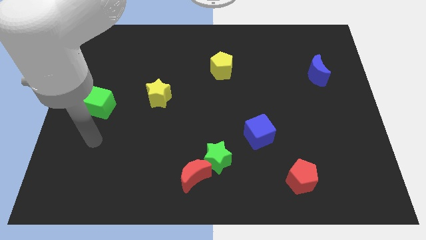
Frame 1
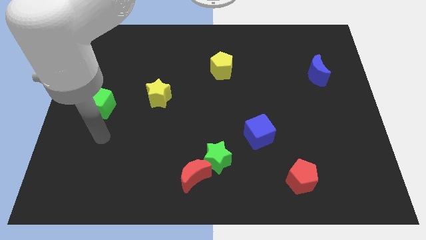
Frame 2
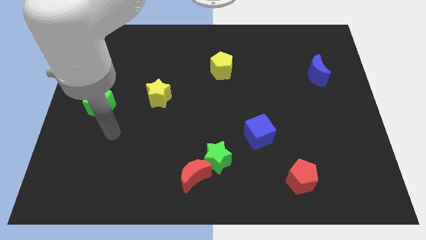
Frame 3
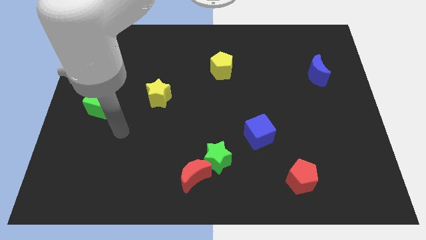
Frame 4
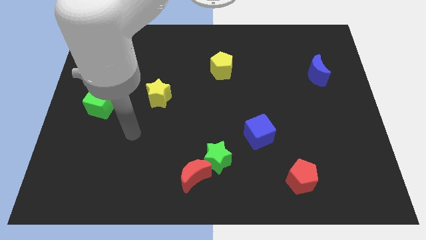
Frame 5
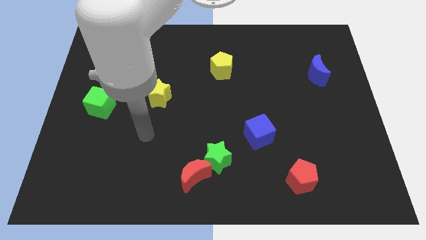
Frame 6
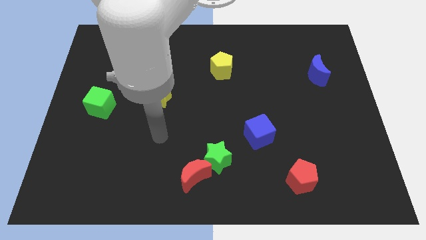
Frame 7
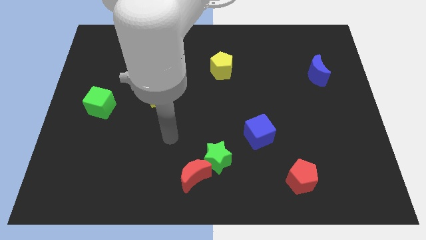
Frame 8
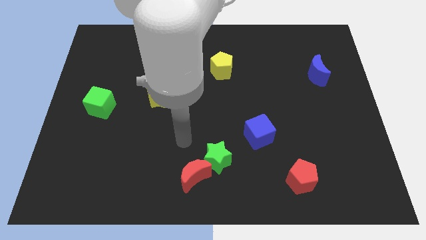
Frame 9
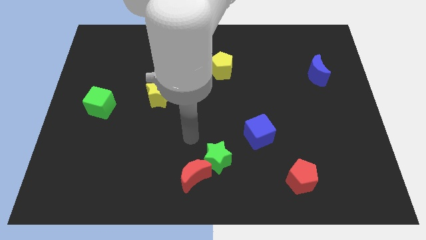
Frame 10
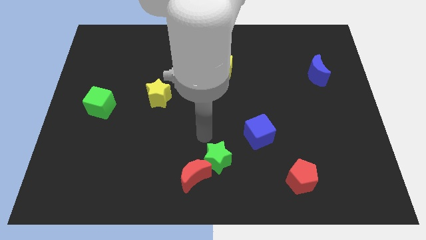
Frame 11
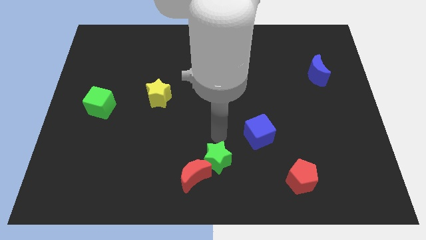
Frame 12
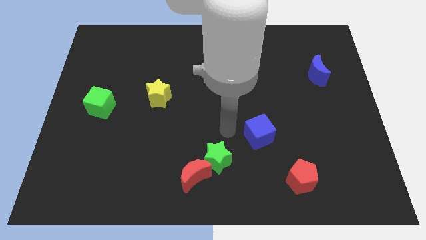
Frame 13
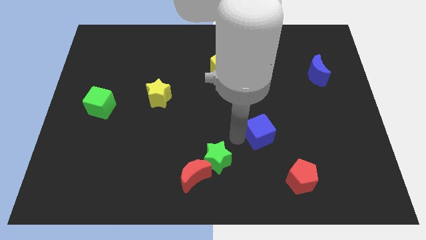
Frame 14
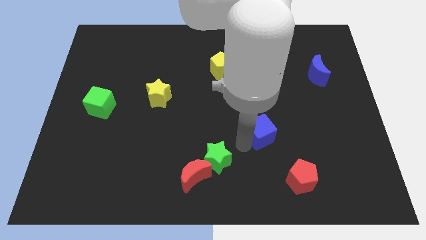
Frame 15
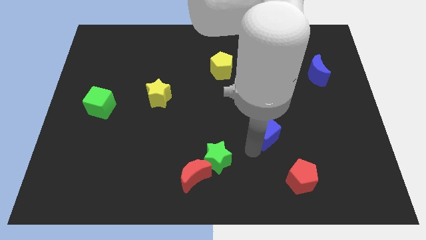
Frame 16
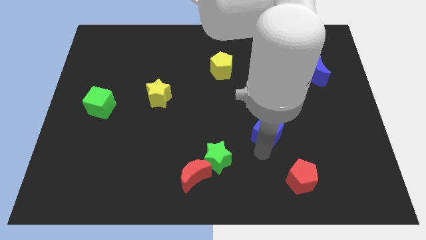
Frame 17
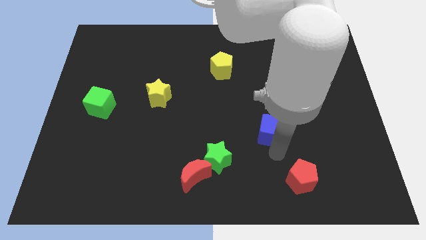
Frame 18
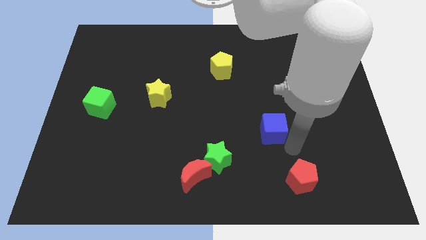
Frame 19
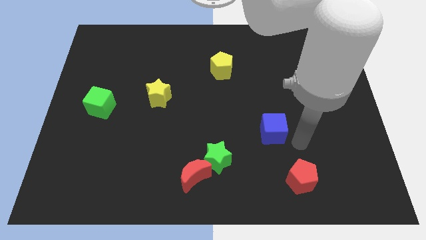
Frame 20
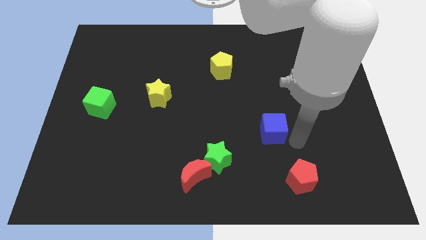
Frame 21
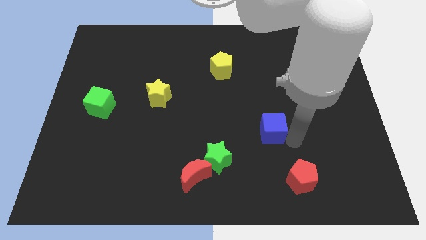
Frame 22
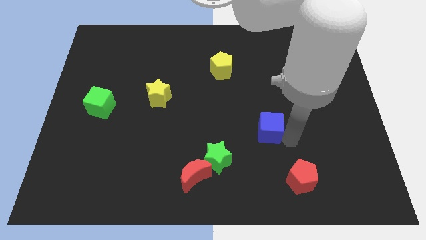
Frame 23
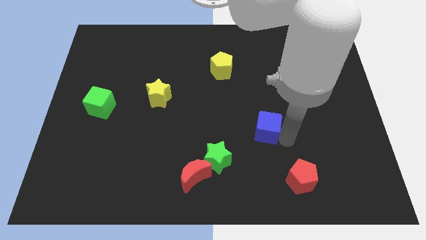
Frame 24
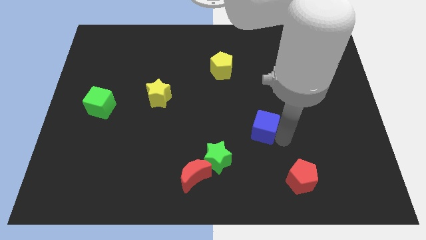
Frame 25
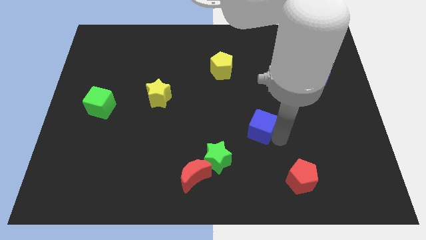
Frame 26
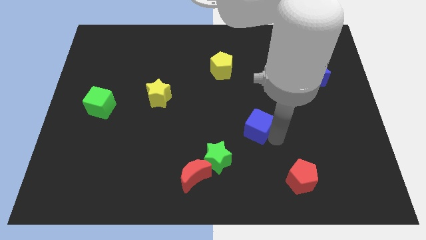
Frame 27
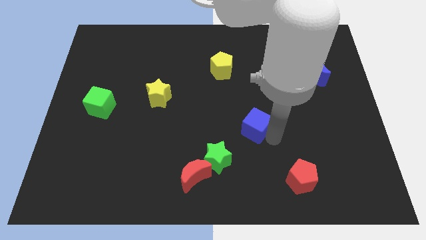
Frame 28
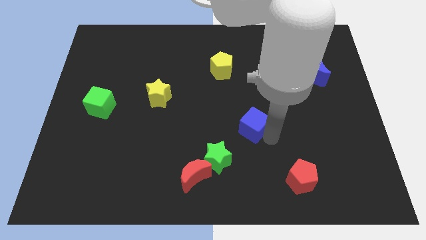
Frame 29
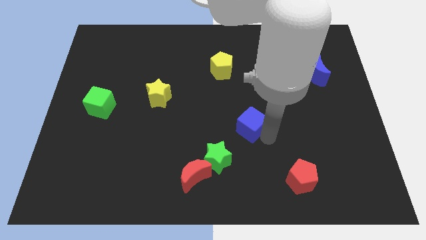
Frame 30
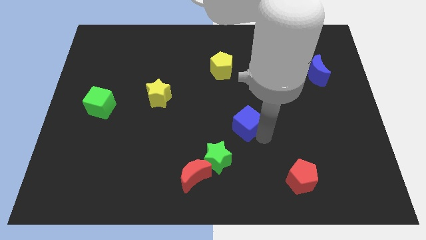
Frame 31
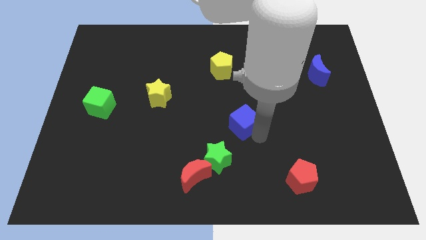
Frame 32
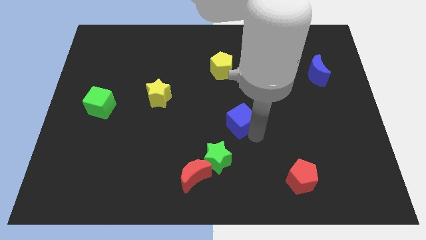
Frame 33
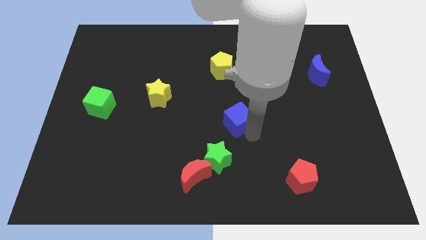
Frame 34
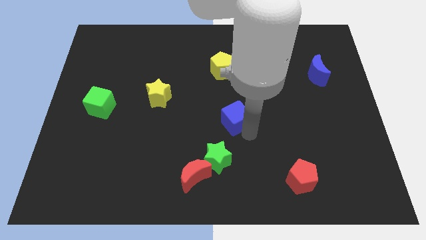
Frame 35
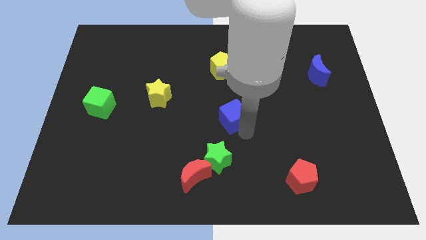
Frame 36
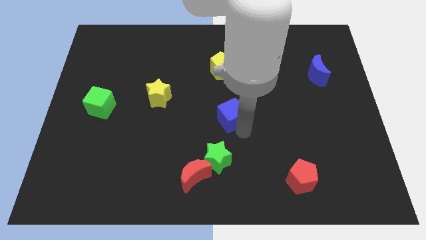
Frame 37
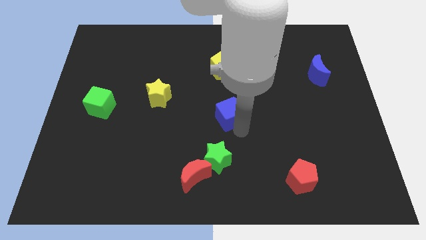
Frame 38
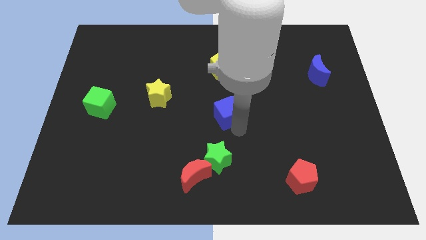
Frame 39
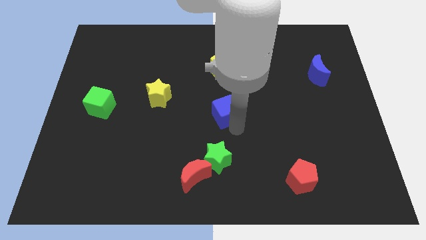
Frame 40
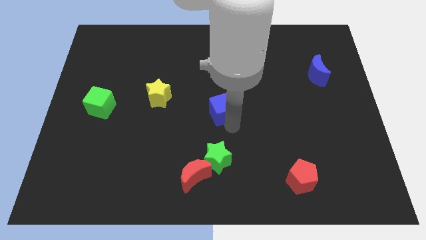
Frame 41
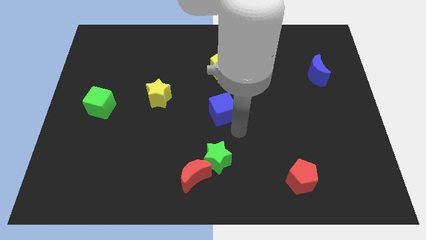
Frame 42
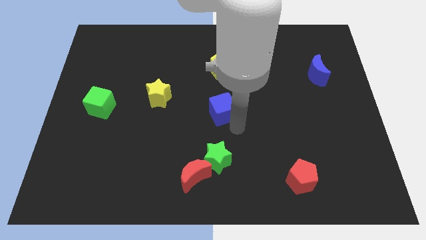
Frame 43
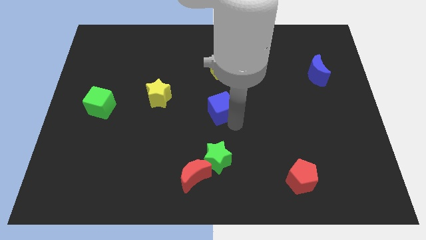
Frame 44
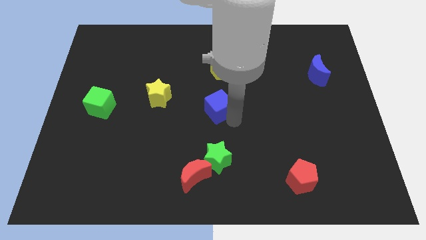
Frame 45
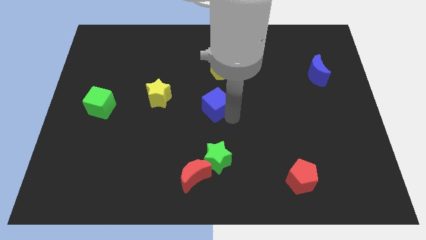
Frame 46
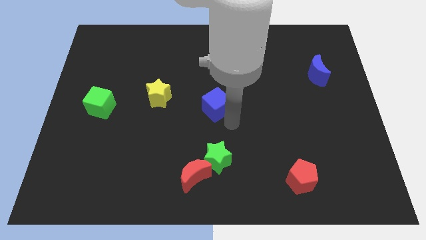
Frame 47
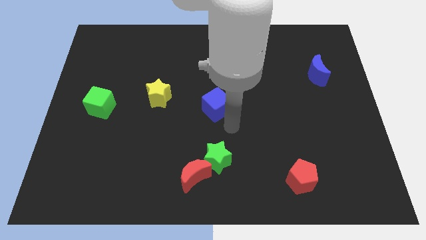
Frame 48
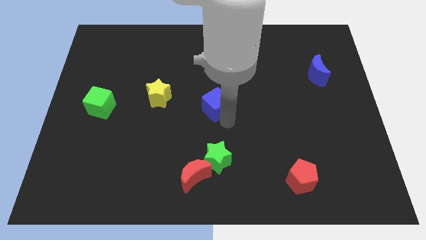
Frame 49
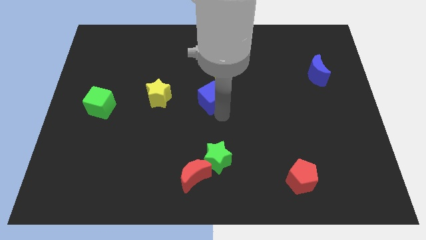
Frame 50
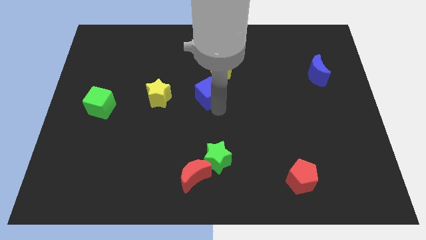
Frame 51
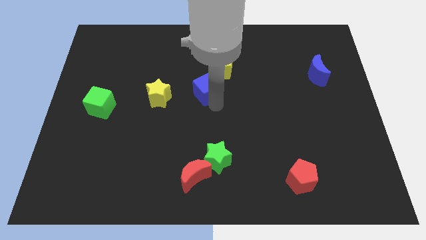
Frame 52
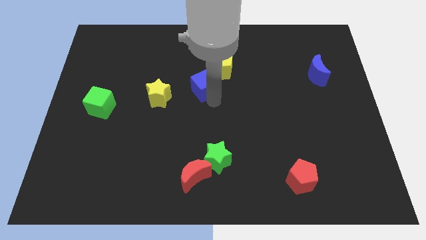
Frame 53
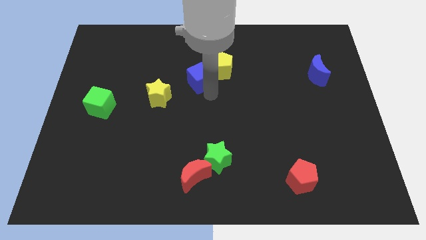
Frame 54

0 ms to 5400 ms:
push the blue cube up and then left

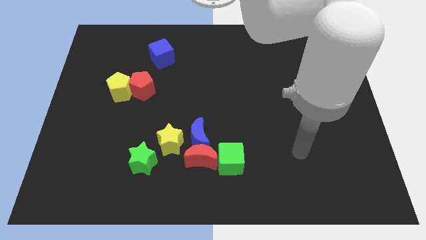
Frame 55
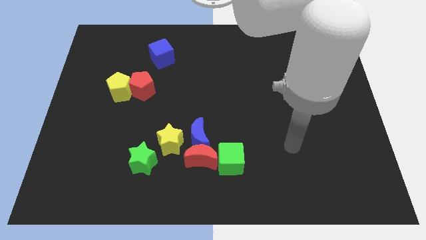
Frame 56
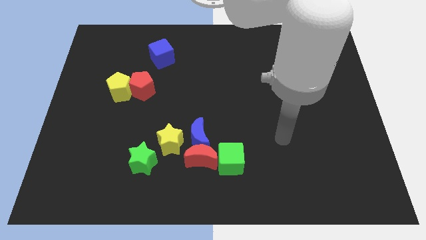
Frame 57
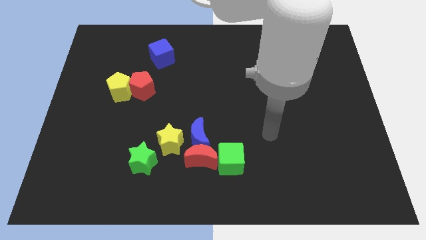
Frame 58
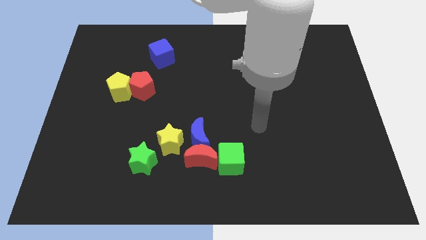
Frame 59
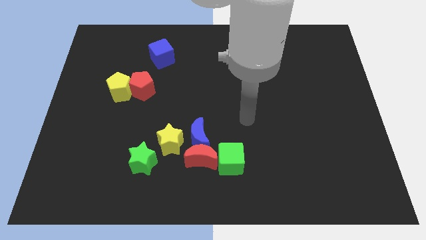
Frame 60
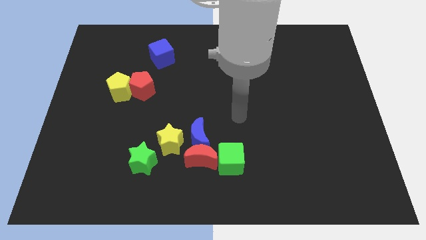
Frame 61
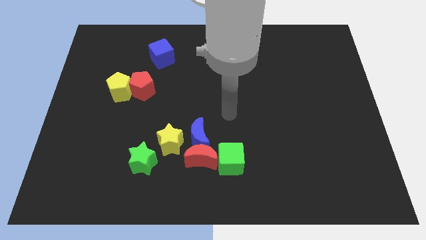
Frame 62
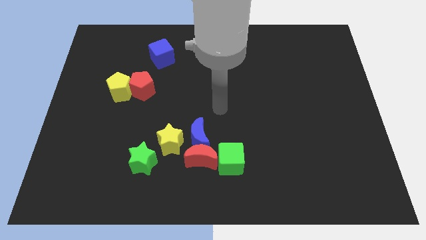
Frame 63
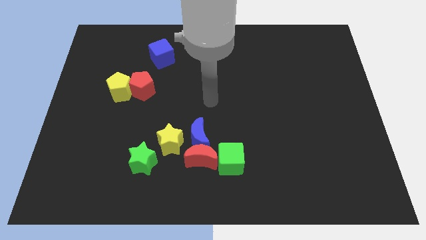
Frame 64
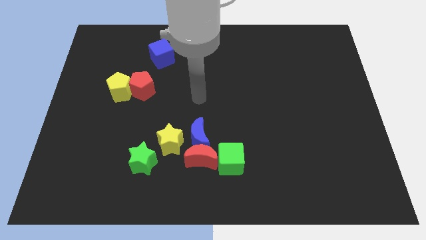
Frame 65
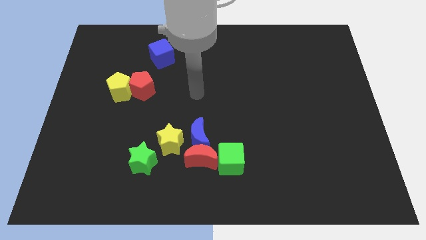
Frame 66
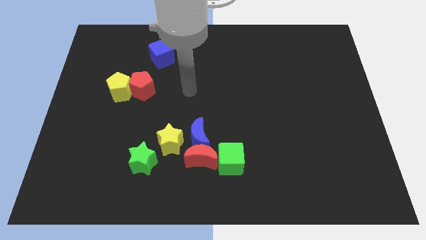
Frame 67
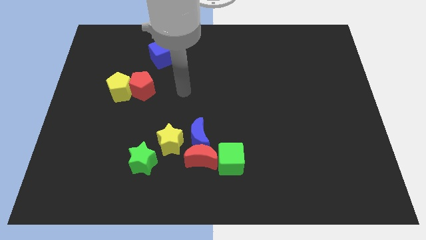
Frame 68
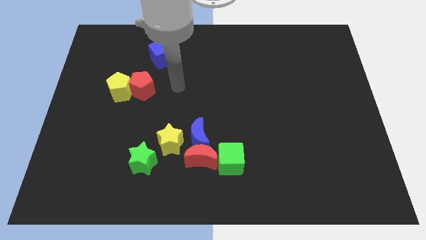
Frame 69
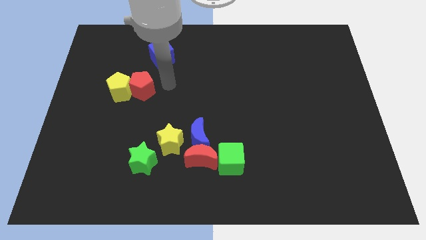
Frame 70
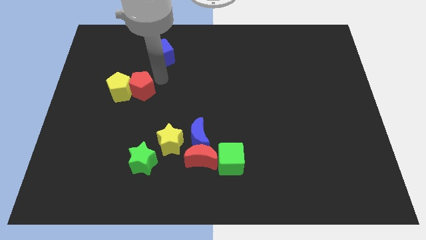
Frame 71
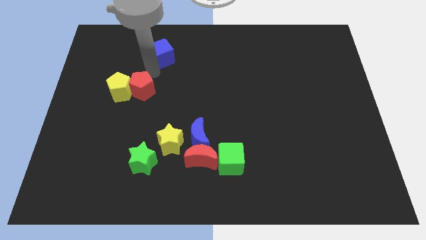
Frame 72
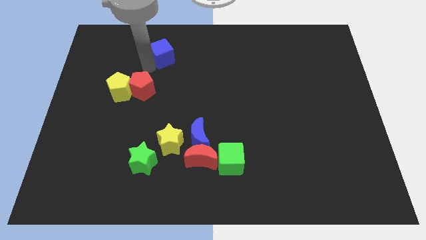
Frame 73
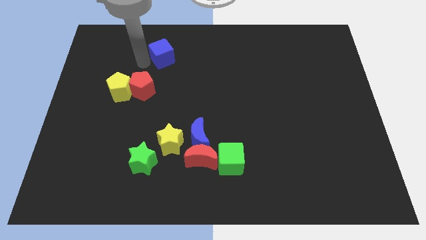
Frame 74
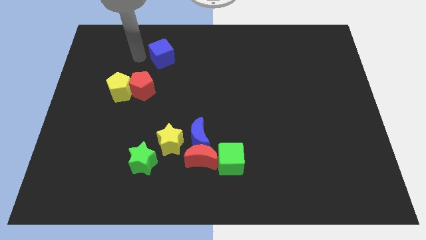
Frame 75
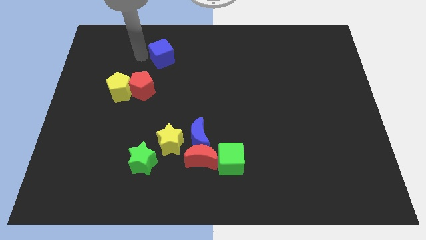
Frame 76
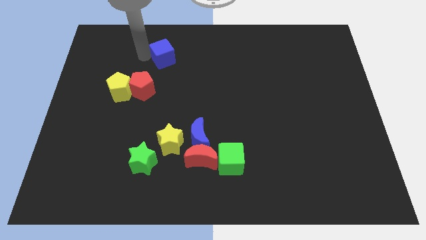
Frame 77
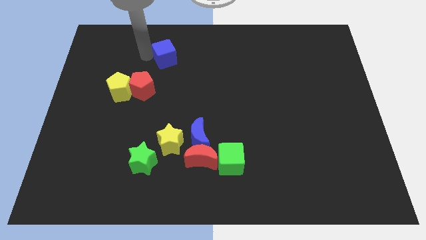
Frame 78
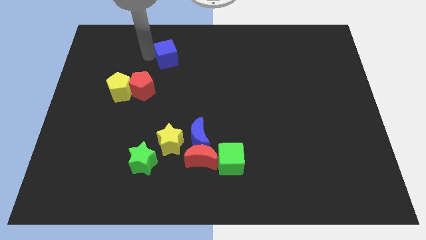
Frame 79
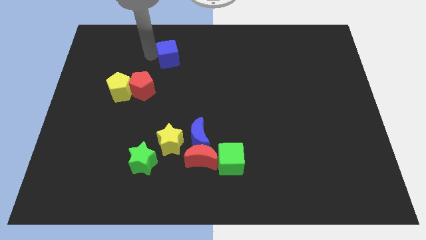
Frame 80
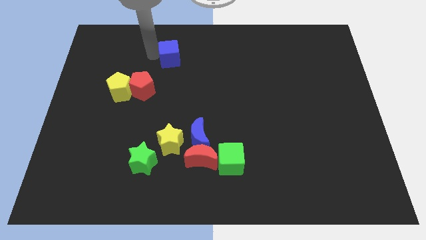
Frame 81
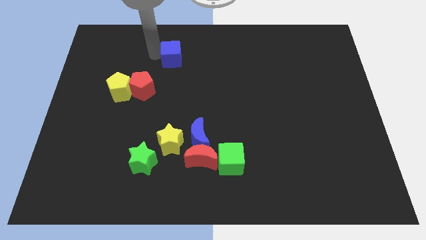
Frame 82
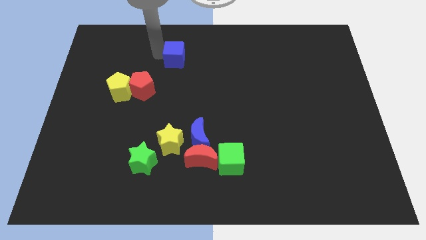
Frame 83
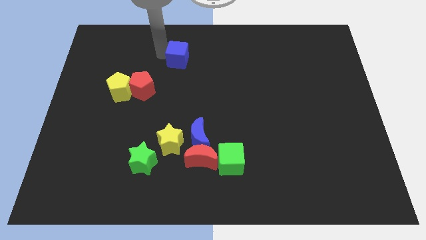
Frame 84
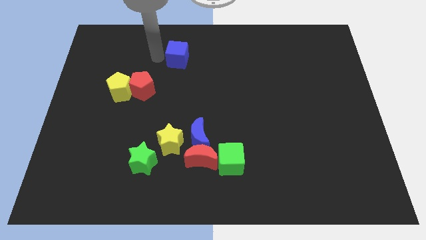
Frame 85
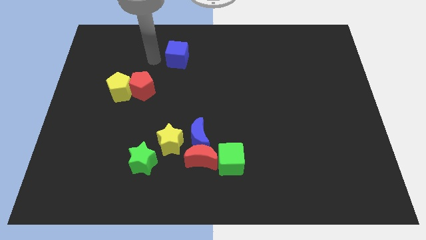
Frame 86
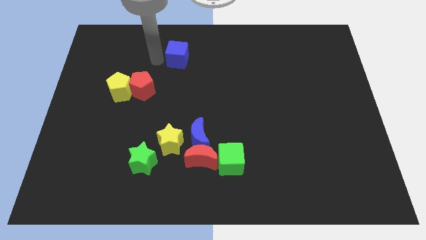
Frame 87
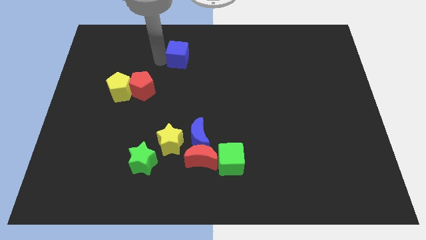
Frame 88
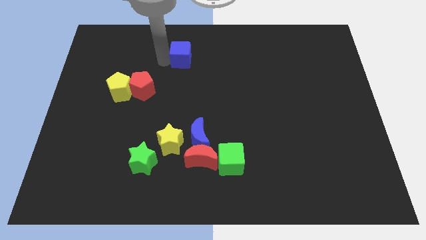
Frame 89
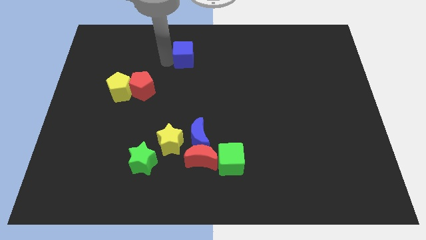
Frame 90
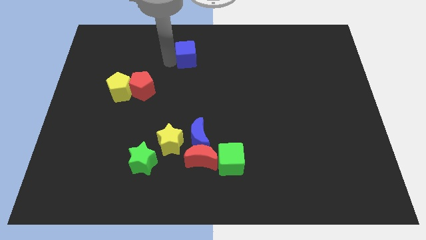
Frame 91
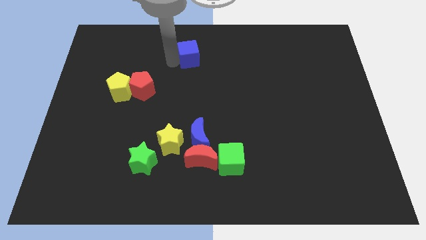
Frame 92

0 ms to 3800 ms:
slide the blue cube to the right a little
